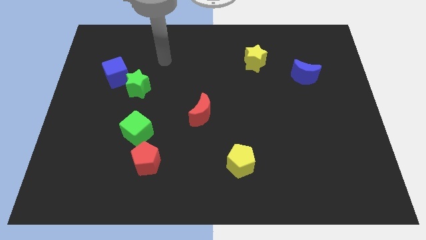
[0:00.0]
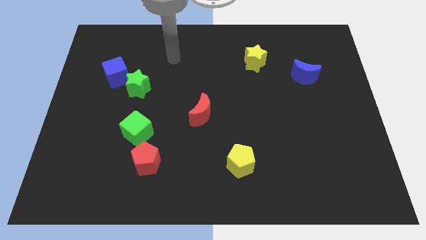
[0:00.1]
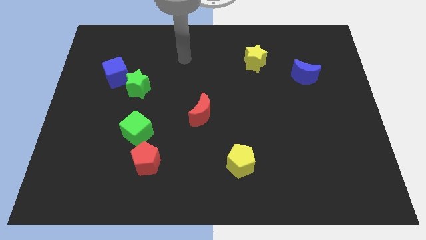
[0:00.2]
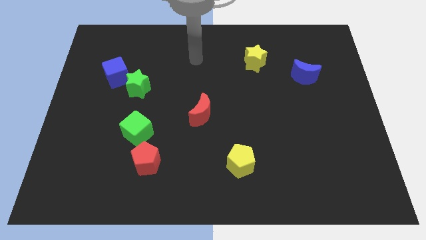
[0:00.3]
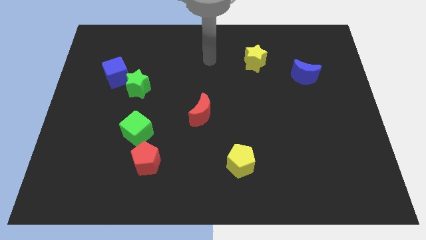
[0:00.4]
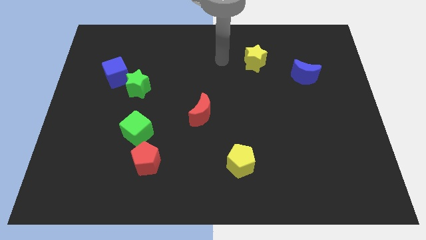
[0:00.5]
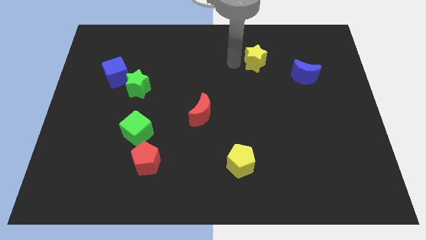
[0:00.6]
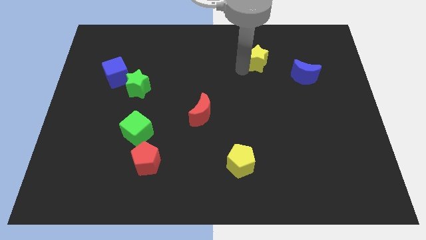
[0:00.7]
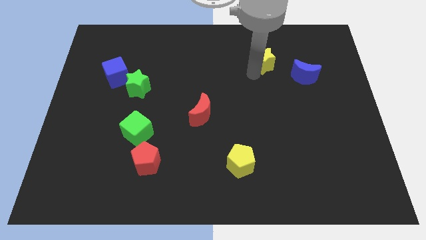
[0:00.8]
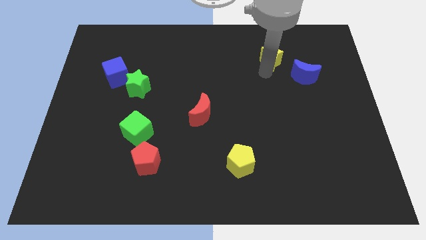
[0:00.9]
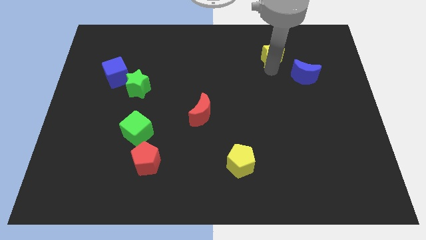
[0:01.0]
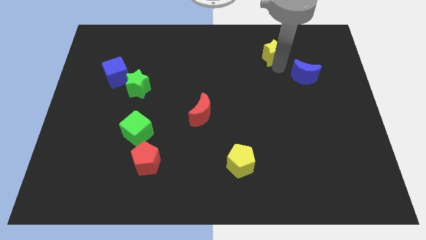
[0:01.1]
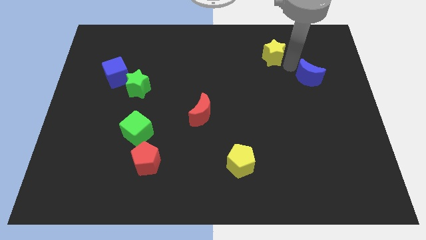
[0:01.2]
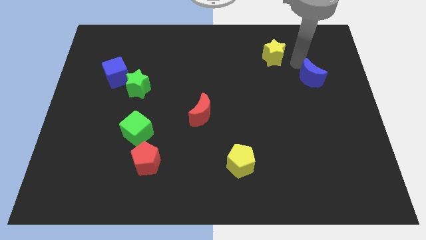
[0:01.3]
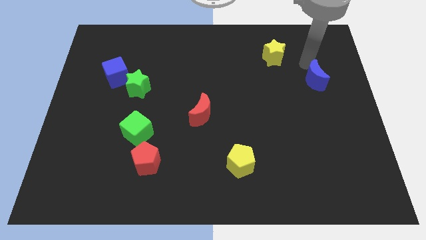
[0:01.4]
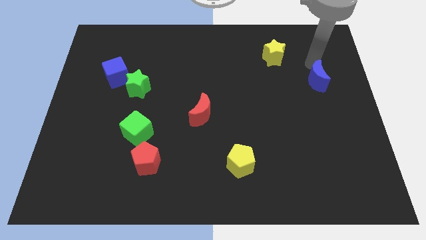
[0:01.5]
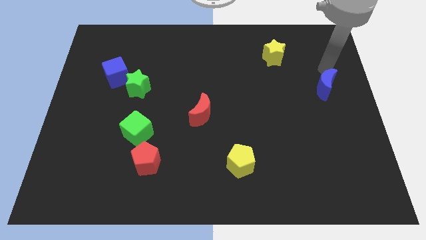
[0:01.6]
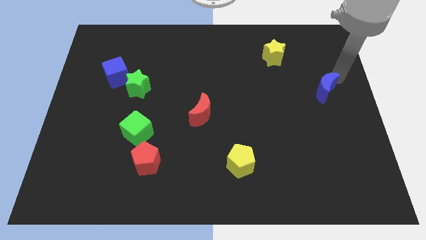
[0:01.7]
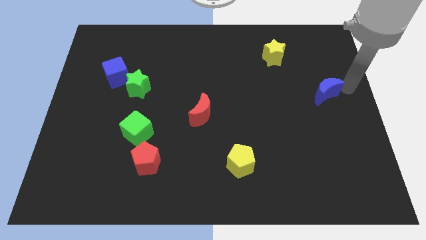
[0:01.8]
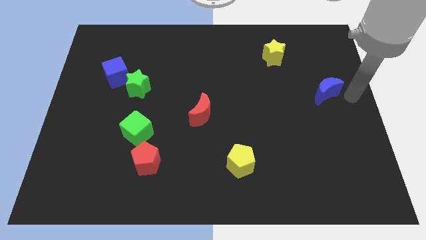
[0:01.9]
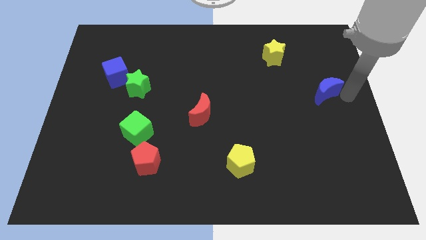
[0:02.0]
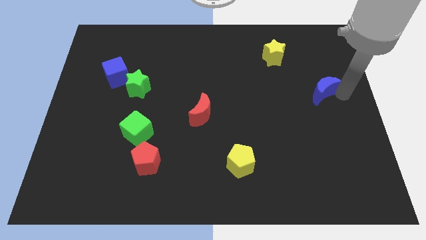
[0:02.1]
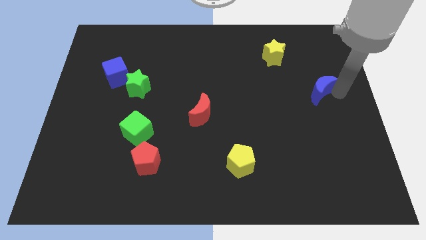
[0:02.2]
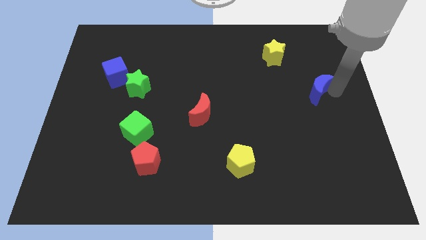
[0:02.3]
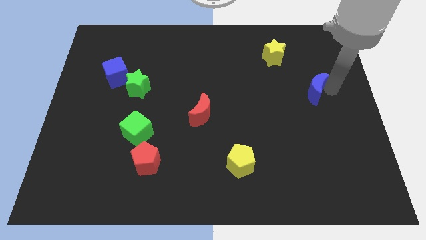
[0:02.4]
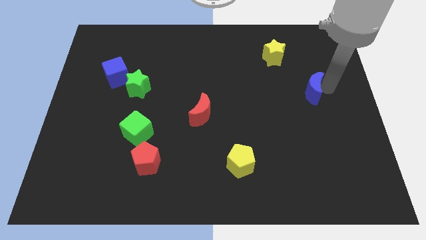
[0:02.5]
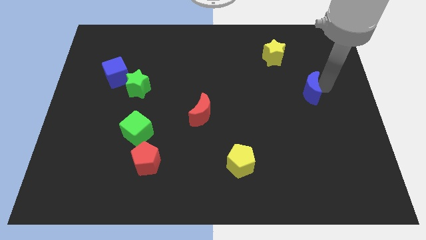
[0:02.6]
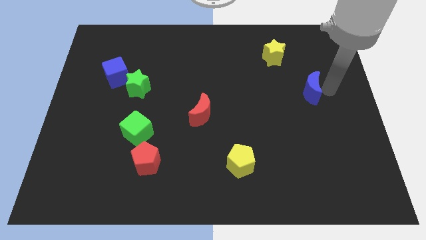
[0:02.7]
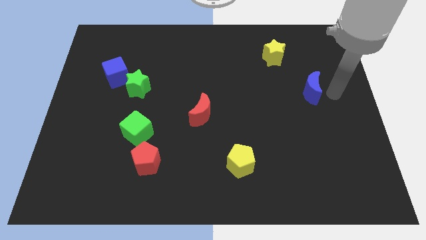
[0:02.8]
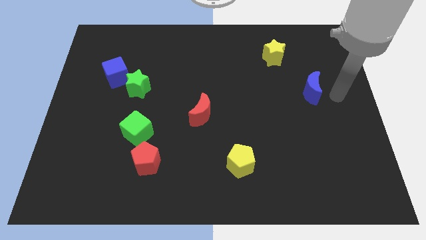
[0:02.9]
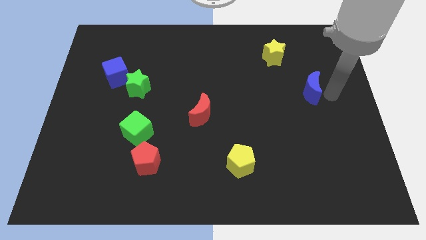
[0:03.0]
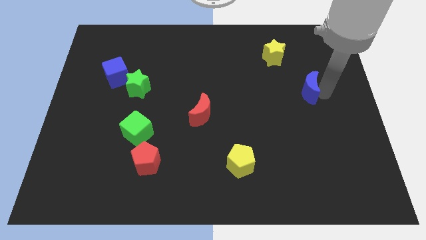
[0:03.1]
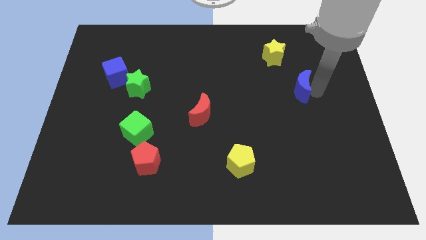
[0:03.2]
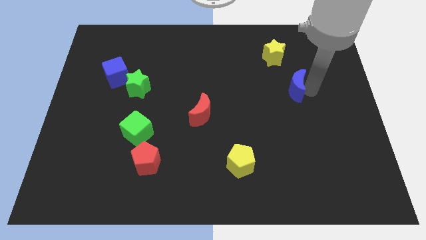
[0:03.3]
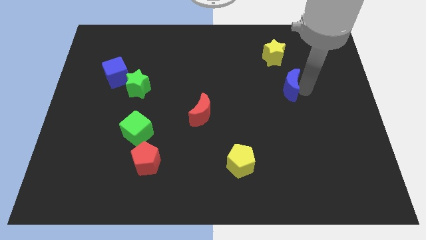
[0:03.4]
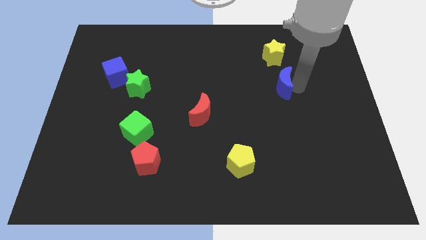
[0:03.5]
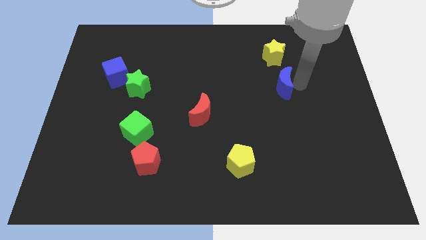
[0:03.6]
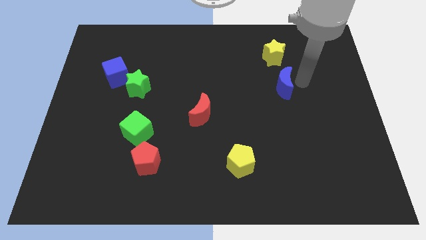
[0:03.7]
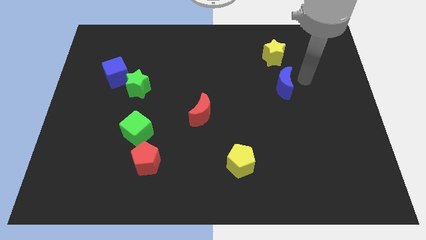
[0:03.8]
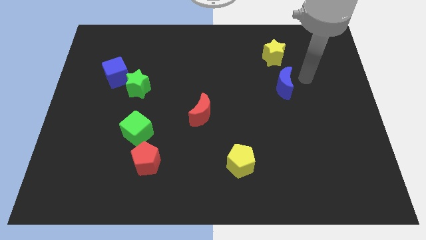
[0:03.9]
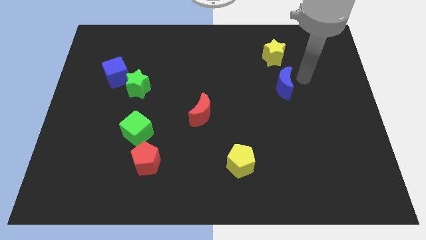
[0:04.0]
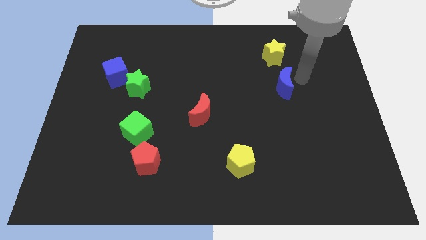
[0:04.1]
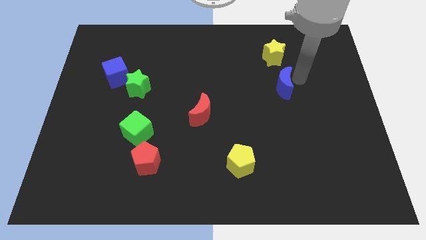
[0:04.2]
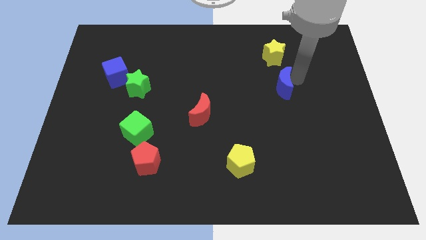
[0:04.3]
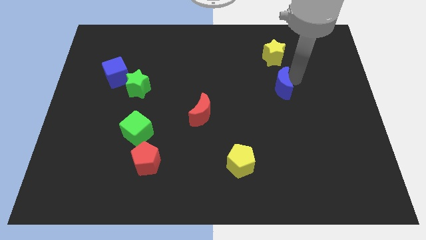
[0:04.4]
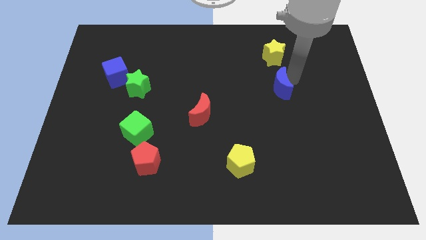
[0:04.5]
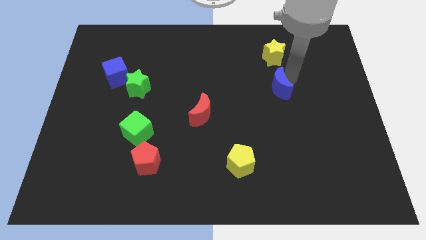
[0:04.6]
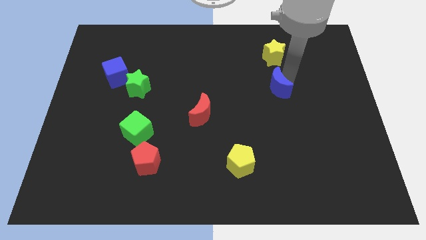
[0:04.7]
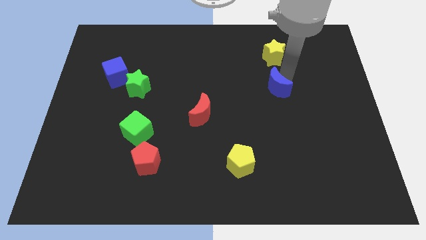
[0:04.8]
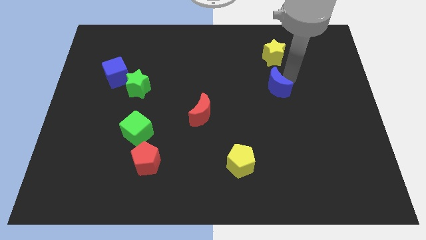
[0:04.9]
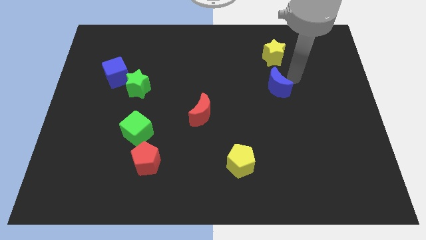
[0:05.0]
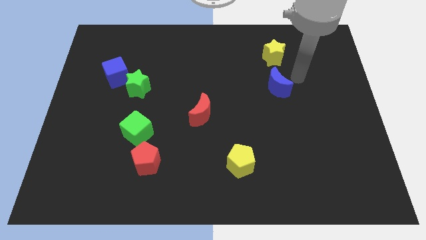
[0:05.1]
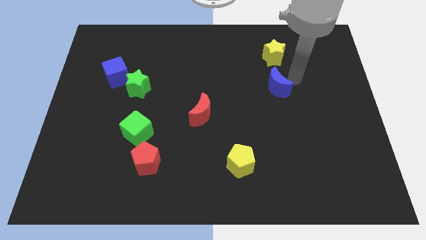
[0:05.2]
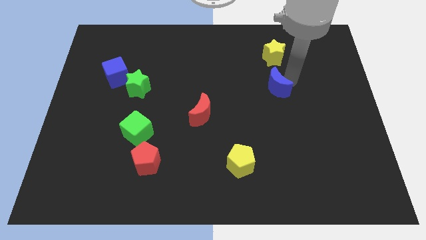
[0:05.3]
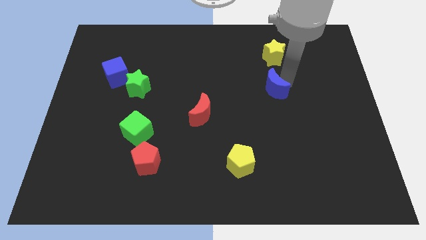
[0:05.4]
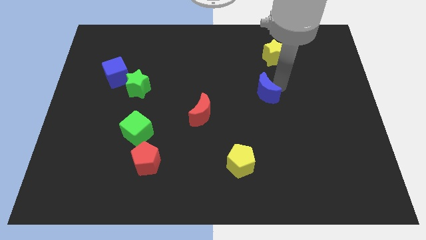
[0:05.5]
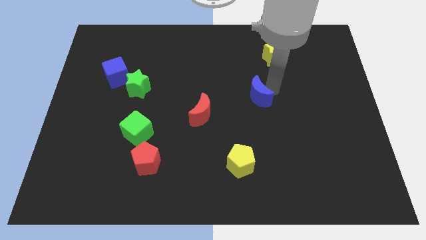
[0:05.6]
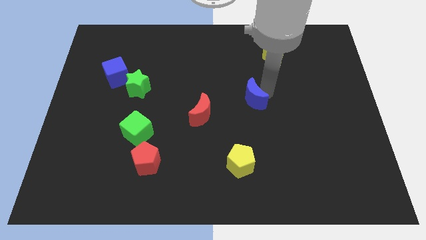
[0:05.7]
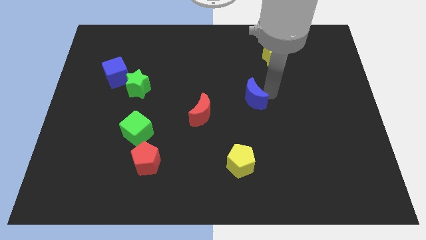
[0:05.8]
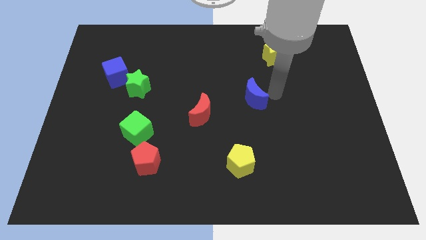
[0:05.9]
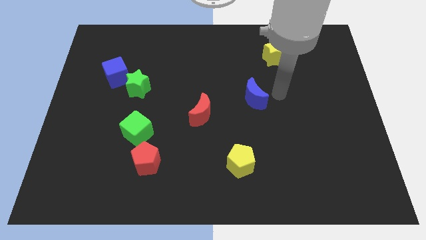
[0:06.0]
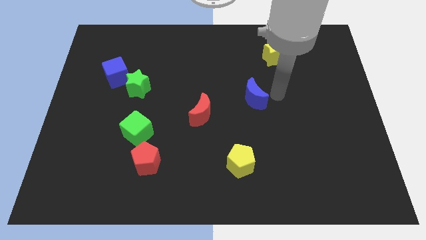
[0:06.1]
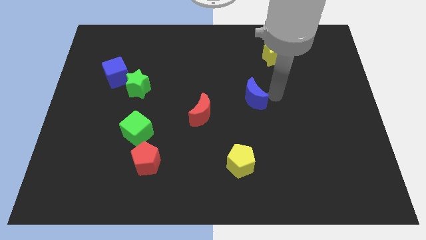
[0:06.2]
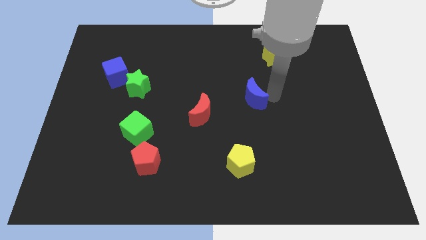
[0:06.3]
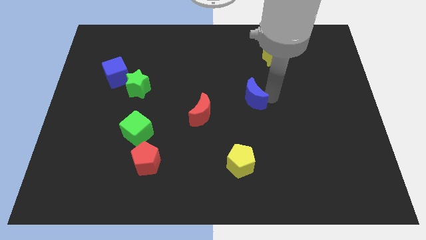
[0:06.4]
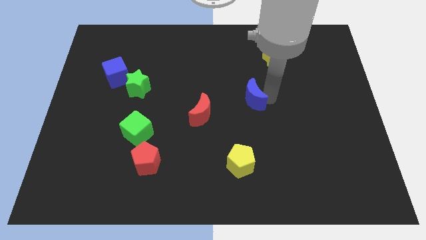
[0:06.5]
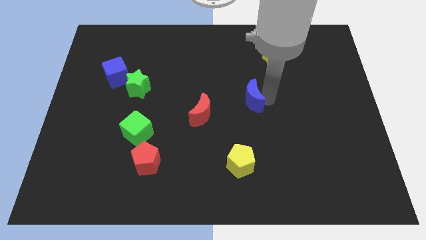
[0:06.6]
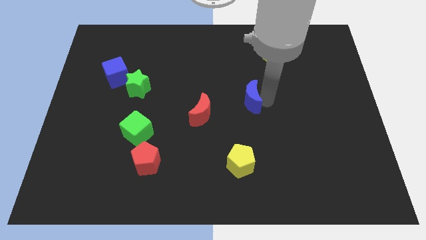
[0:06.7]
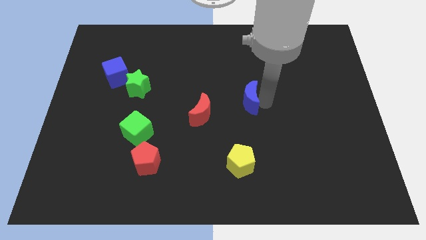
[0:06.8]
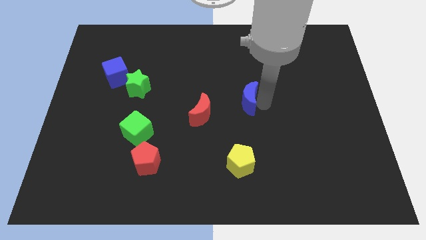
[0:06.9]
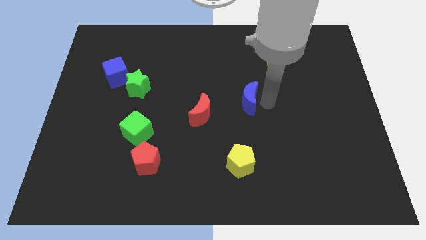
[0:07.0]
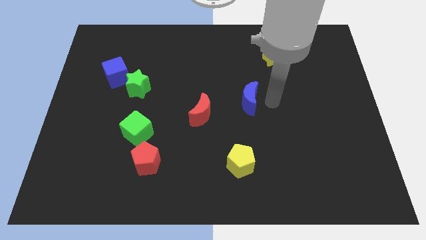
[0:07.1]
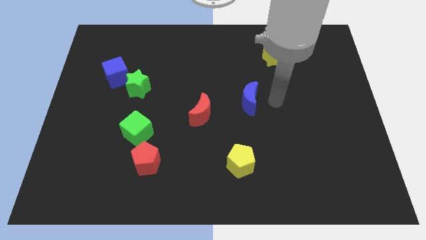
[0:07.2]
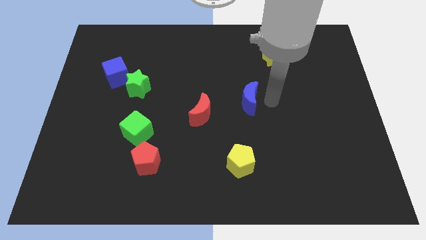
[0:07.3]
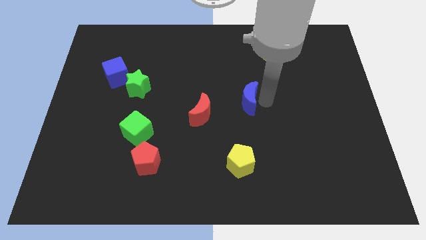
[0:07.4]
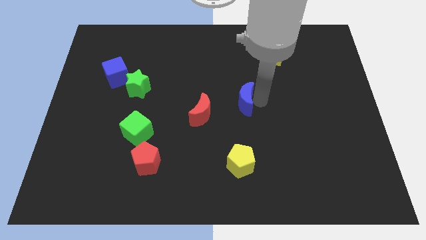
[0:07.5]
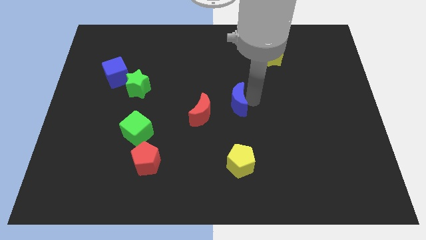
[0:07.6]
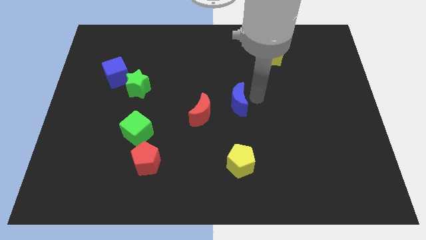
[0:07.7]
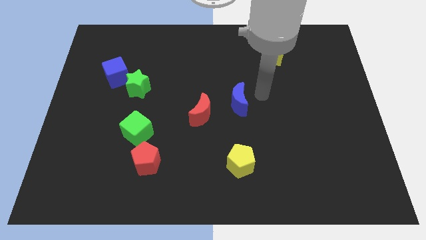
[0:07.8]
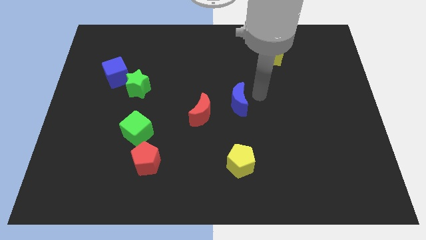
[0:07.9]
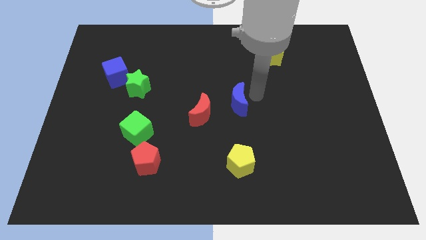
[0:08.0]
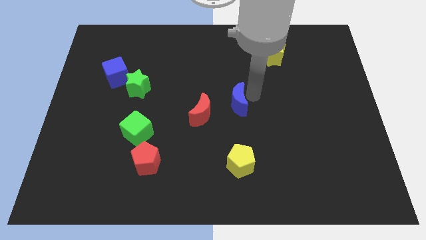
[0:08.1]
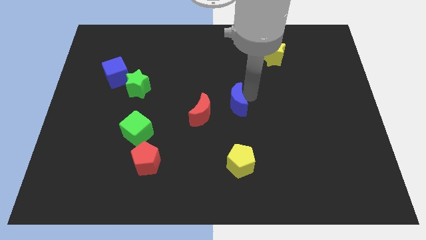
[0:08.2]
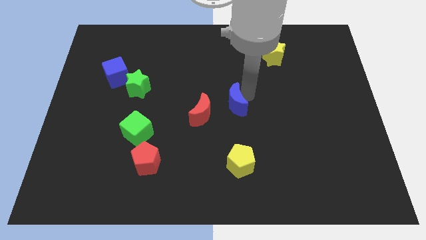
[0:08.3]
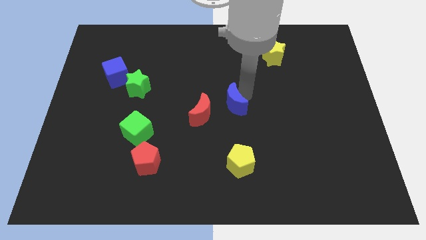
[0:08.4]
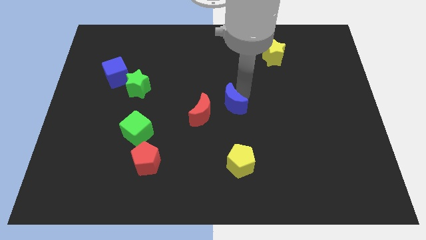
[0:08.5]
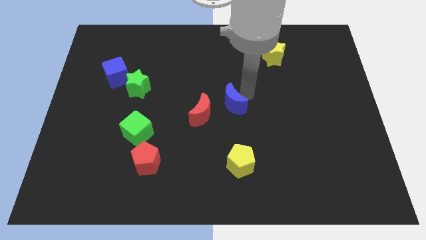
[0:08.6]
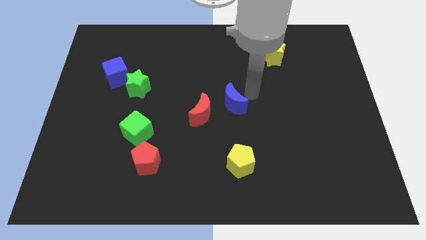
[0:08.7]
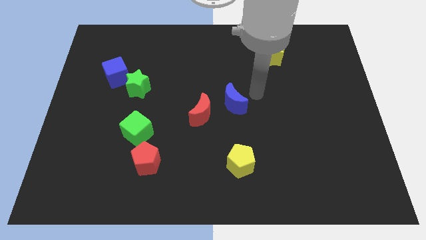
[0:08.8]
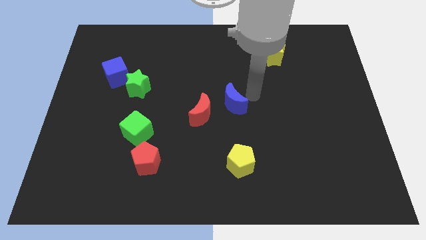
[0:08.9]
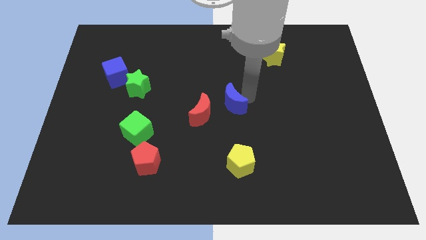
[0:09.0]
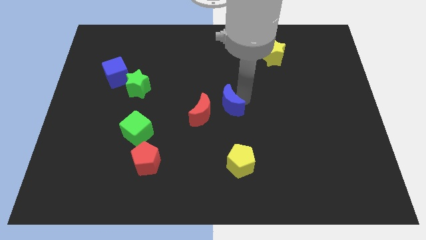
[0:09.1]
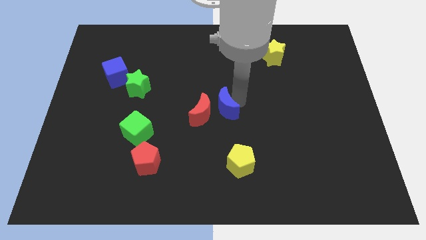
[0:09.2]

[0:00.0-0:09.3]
put the blue moon towards the red moon
